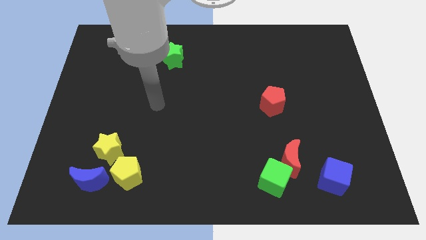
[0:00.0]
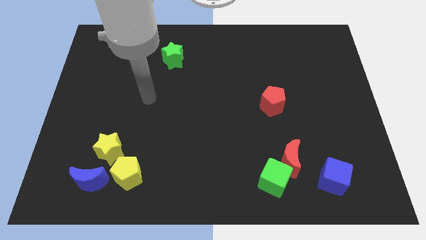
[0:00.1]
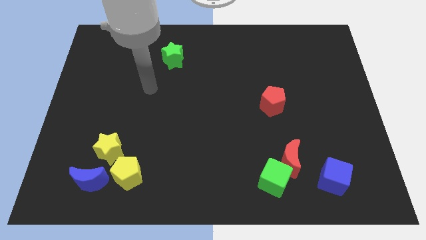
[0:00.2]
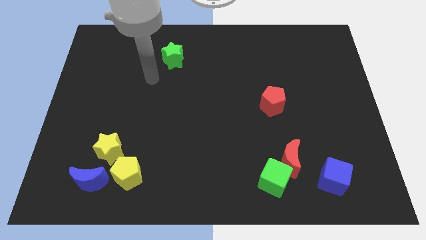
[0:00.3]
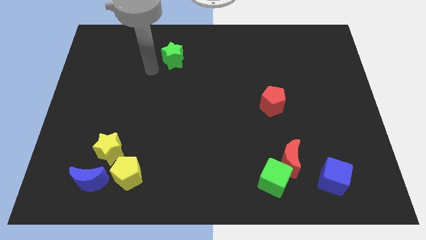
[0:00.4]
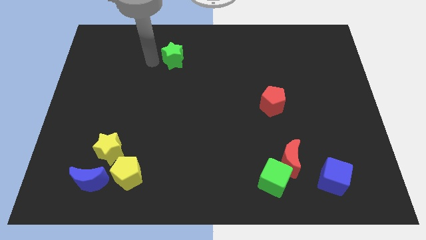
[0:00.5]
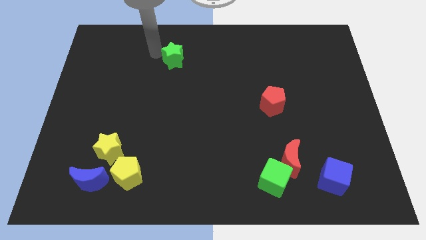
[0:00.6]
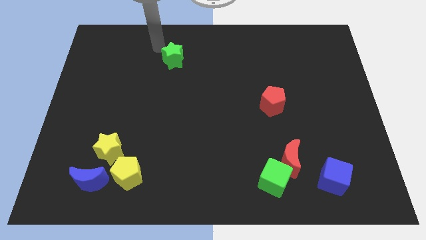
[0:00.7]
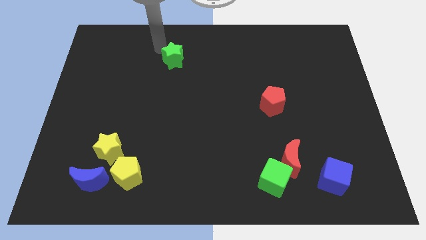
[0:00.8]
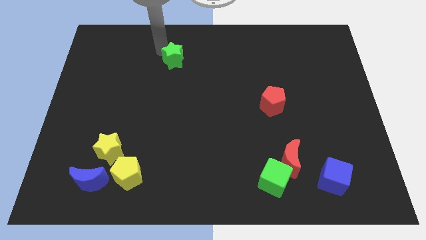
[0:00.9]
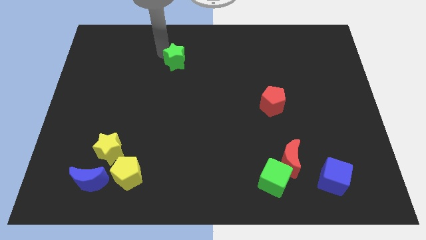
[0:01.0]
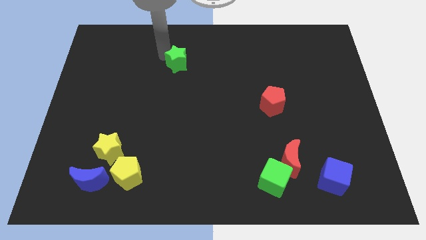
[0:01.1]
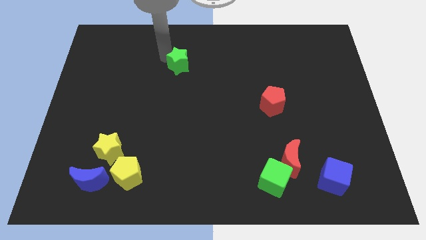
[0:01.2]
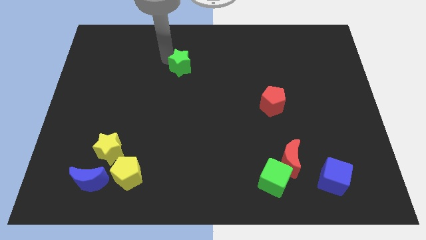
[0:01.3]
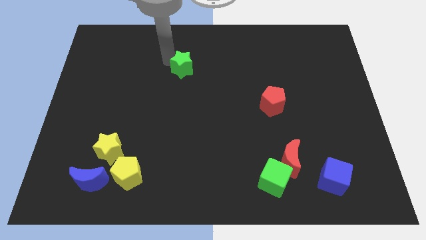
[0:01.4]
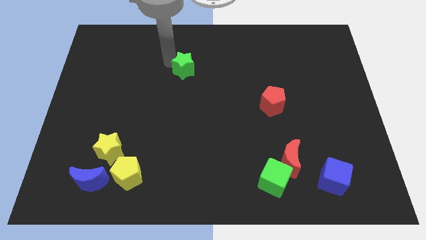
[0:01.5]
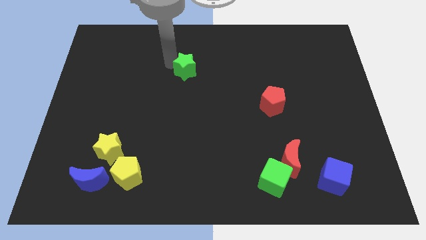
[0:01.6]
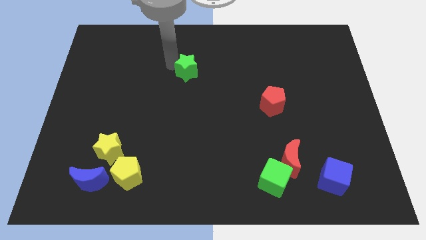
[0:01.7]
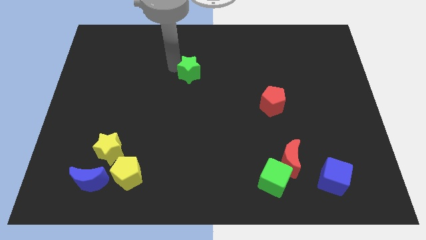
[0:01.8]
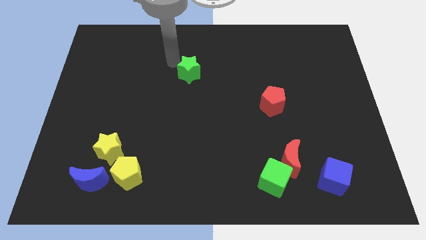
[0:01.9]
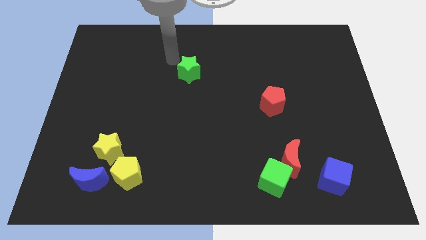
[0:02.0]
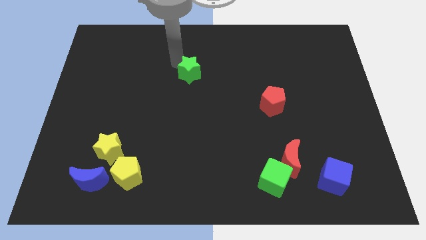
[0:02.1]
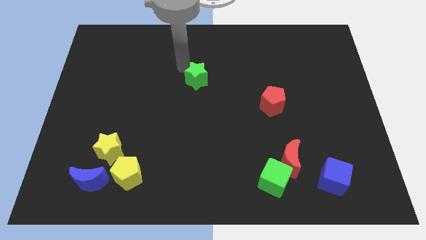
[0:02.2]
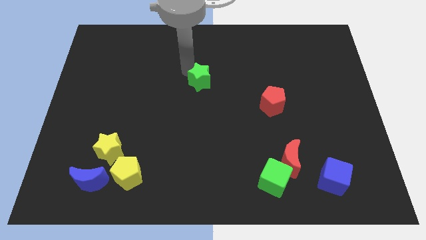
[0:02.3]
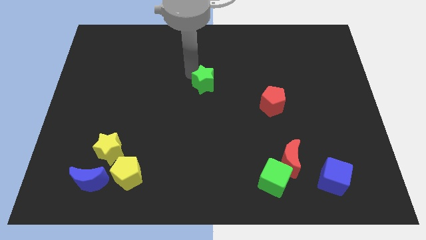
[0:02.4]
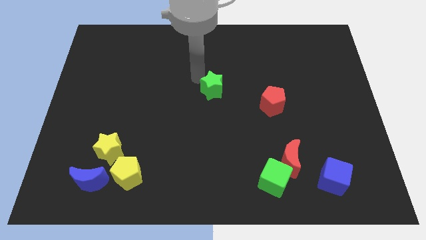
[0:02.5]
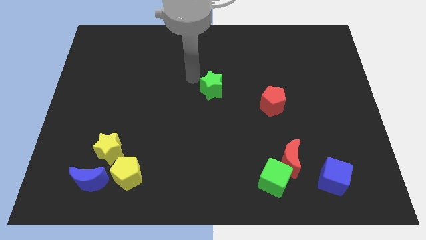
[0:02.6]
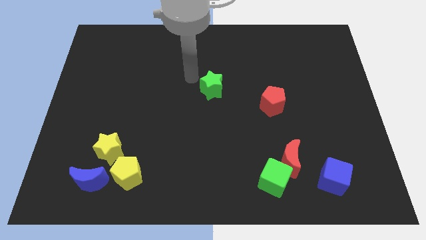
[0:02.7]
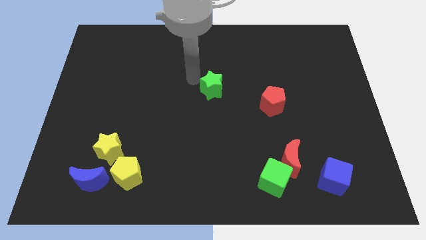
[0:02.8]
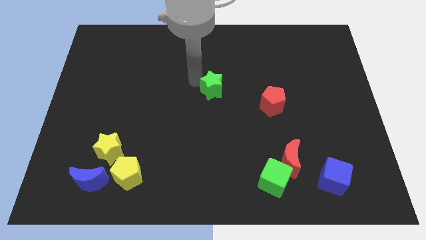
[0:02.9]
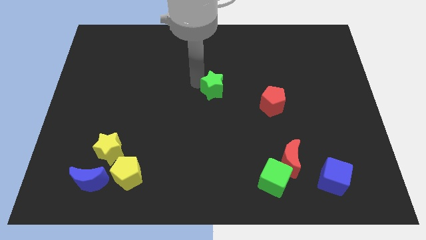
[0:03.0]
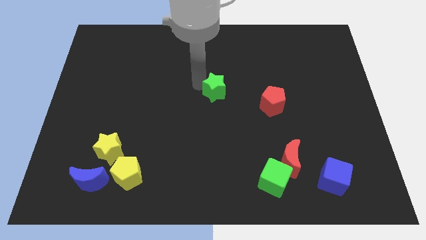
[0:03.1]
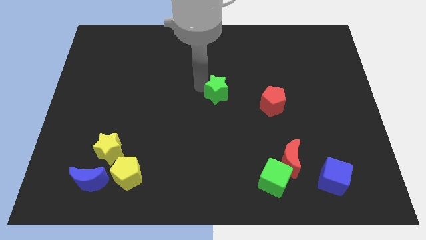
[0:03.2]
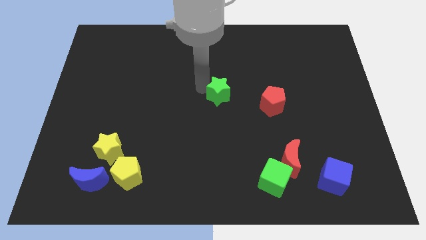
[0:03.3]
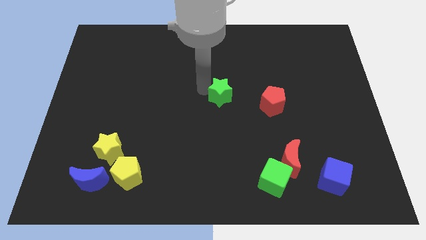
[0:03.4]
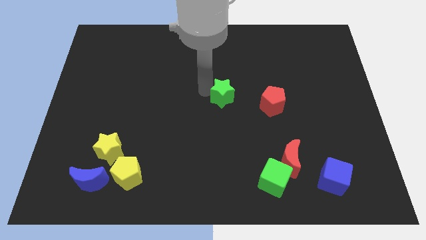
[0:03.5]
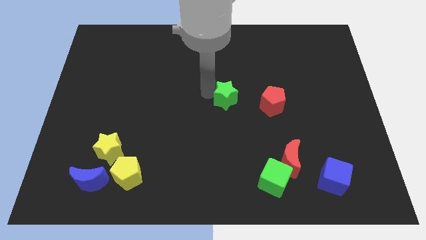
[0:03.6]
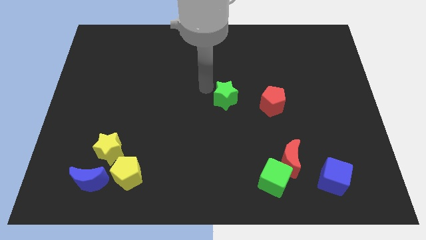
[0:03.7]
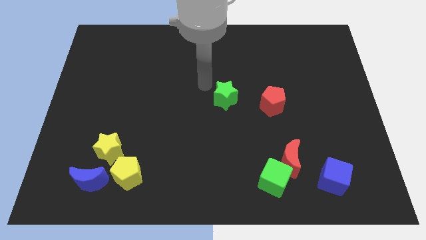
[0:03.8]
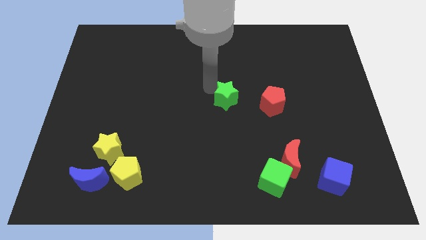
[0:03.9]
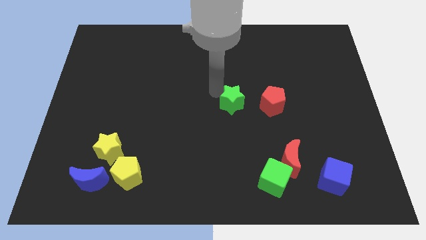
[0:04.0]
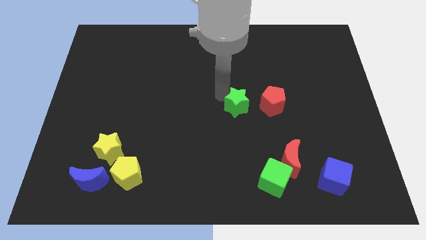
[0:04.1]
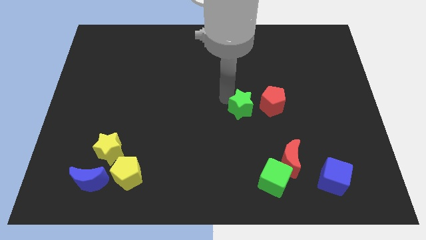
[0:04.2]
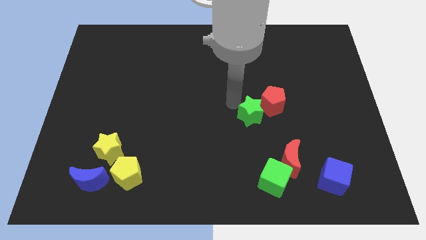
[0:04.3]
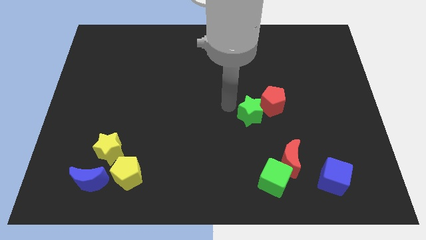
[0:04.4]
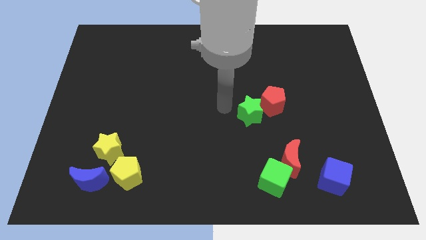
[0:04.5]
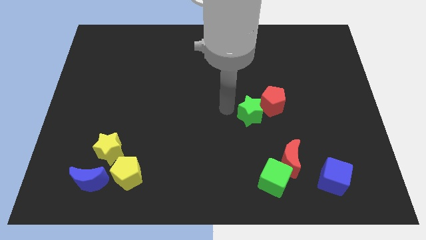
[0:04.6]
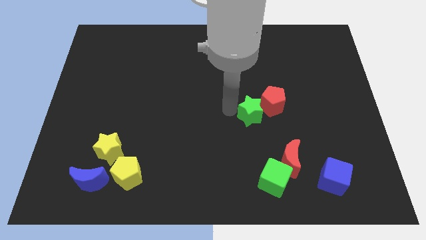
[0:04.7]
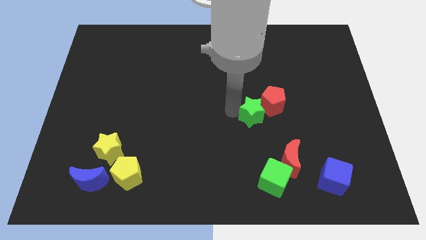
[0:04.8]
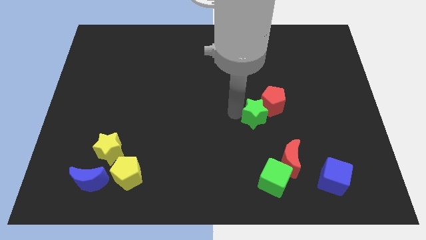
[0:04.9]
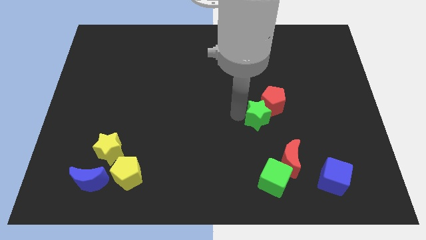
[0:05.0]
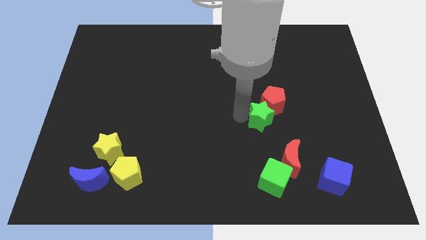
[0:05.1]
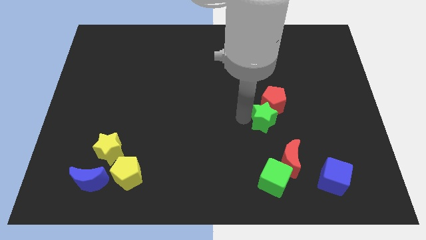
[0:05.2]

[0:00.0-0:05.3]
move the green star to the top side of the red moon

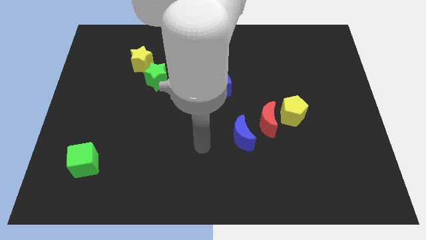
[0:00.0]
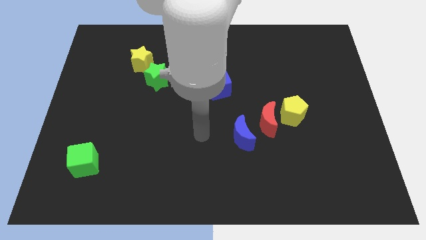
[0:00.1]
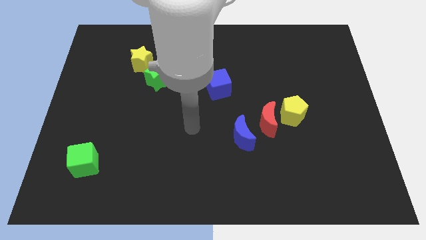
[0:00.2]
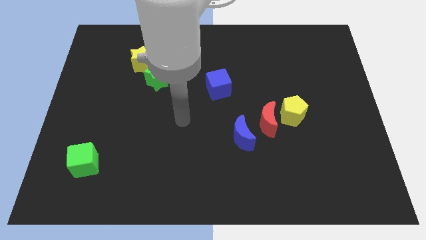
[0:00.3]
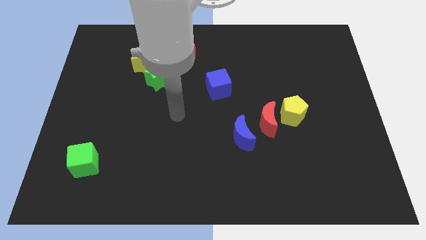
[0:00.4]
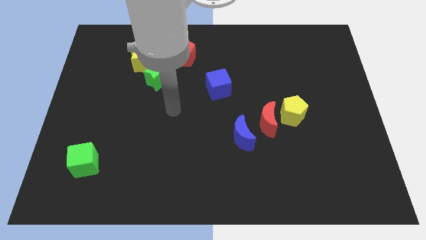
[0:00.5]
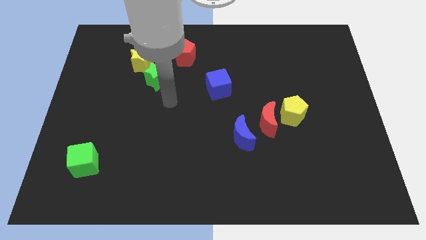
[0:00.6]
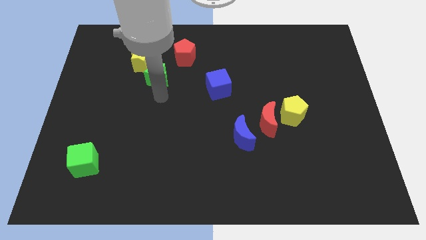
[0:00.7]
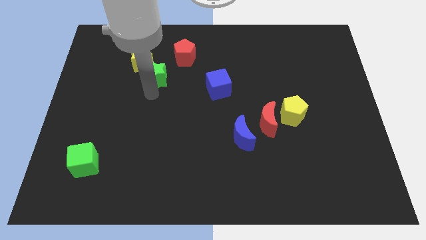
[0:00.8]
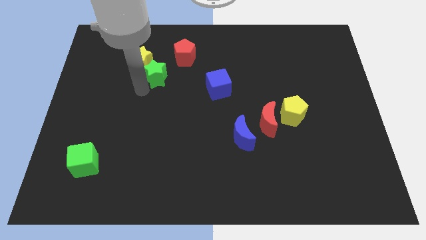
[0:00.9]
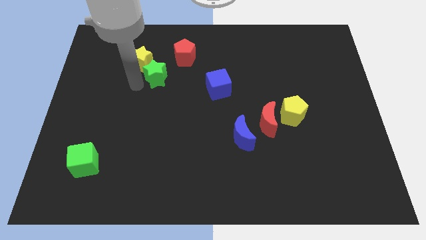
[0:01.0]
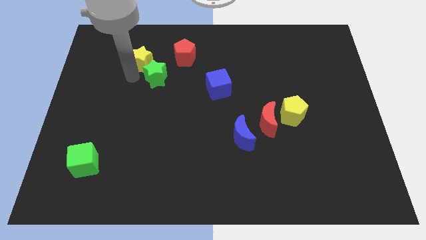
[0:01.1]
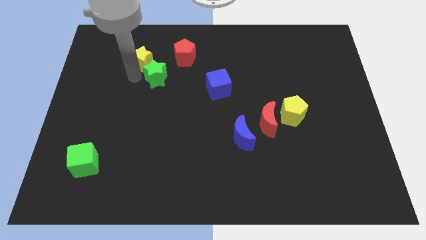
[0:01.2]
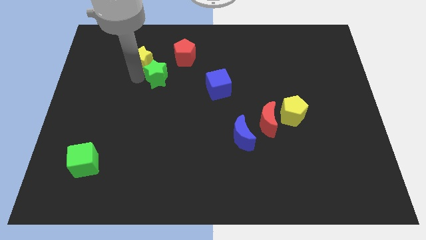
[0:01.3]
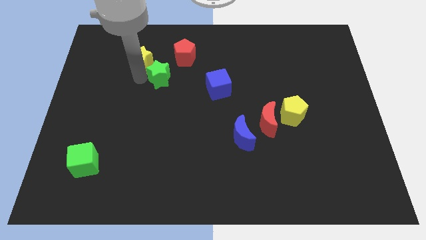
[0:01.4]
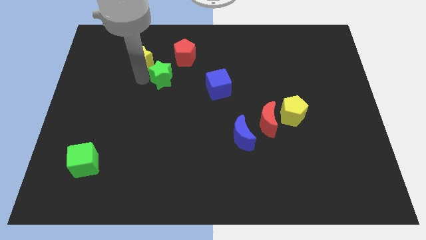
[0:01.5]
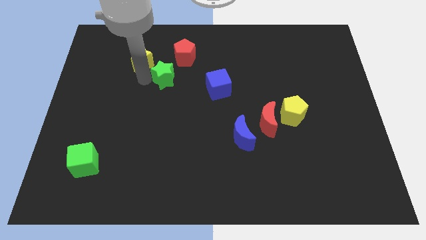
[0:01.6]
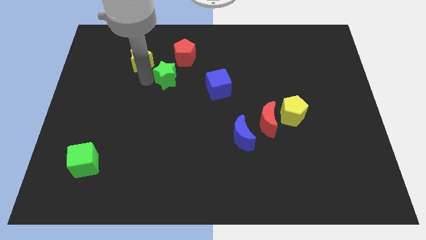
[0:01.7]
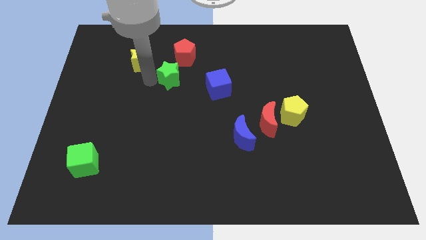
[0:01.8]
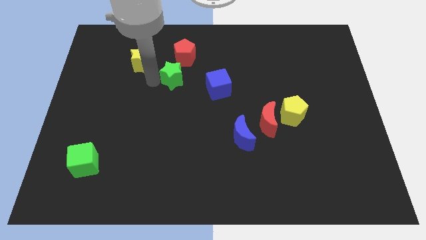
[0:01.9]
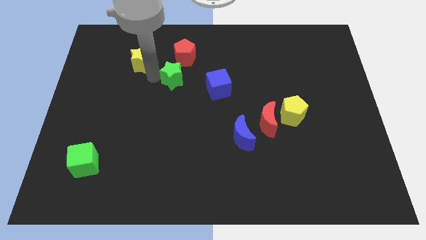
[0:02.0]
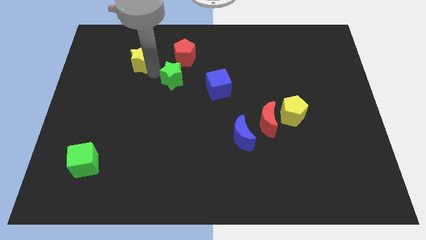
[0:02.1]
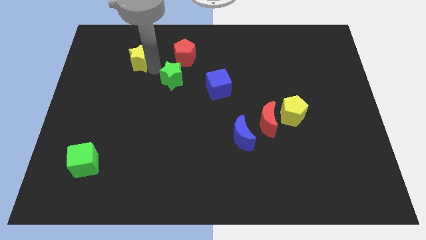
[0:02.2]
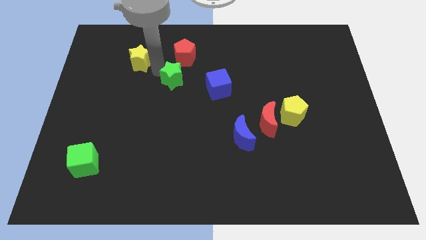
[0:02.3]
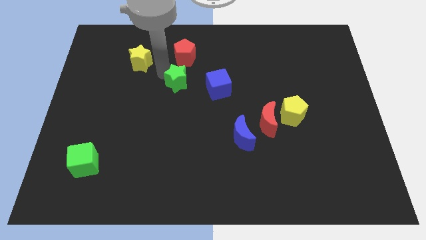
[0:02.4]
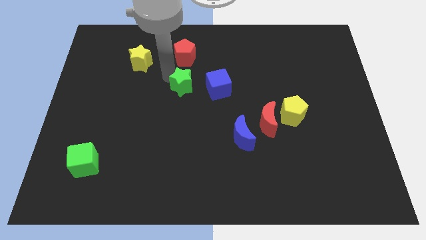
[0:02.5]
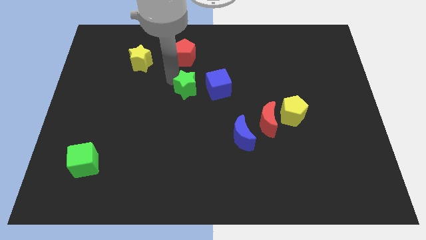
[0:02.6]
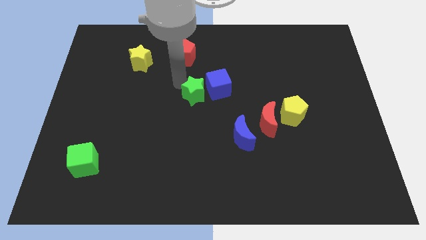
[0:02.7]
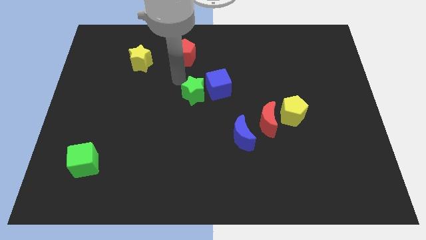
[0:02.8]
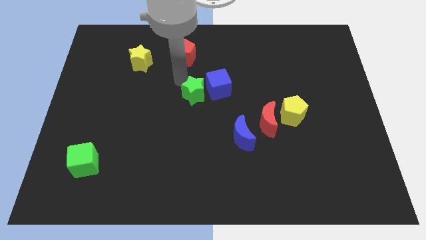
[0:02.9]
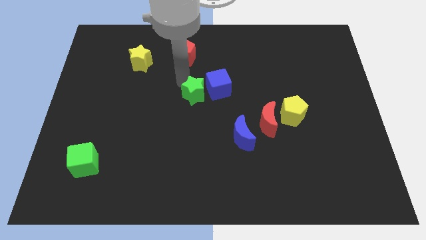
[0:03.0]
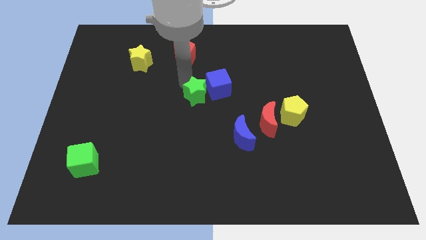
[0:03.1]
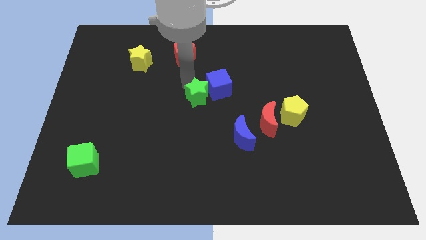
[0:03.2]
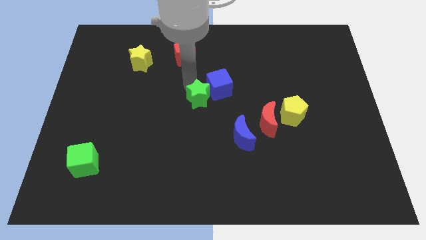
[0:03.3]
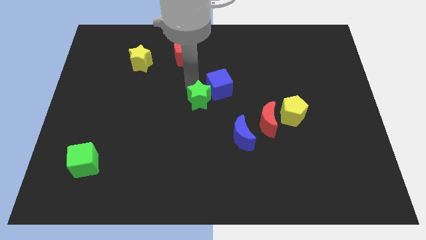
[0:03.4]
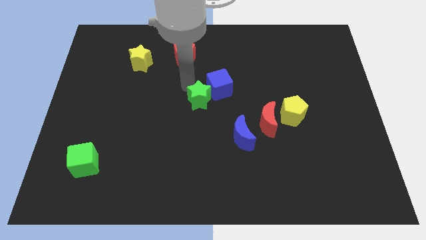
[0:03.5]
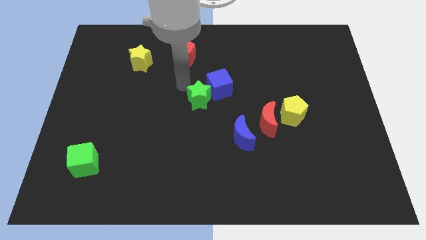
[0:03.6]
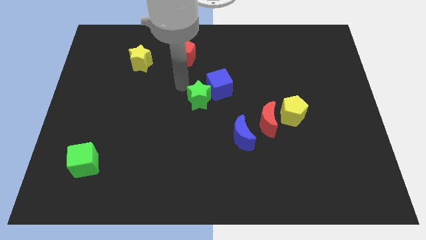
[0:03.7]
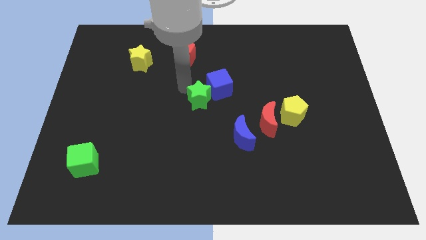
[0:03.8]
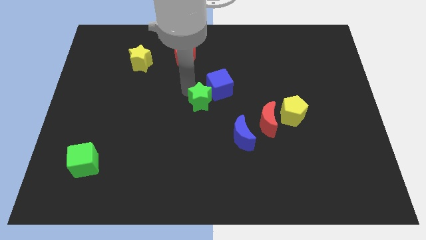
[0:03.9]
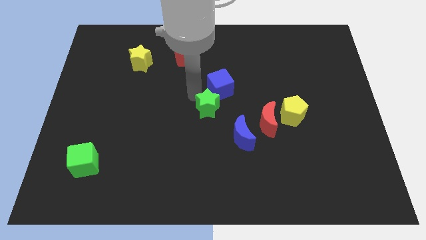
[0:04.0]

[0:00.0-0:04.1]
move the green star left of the red moon
